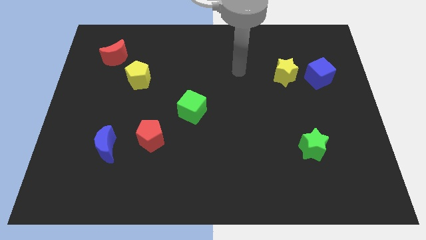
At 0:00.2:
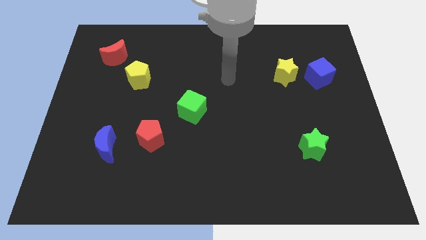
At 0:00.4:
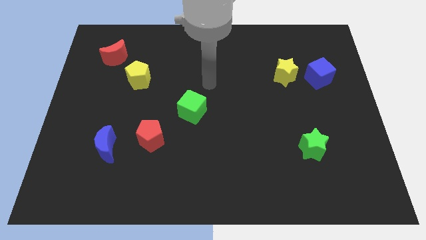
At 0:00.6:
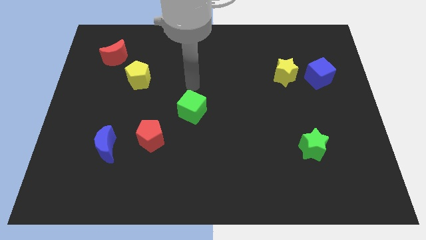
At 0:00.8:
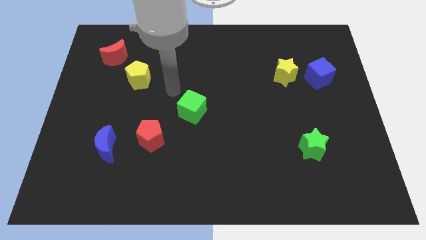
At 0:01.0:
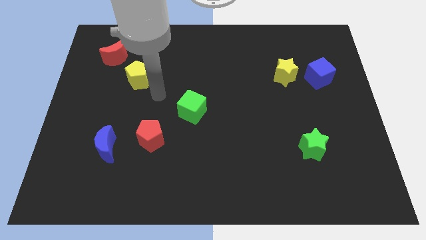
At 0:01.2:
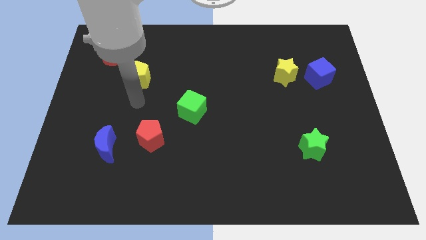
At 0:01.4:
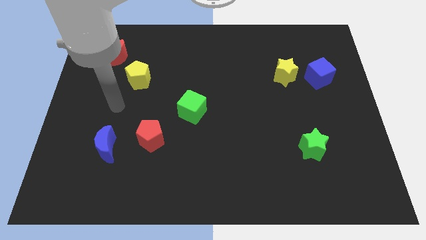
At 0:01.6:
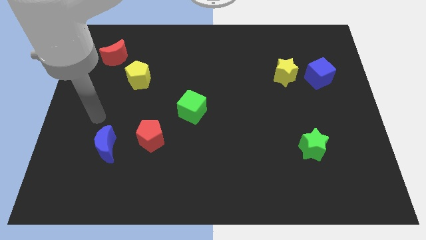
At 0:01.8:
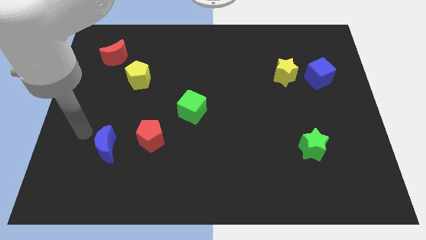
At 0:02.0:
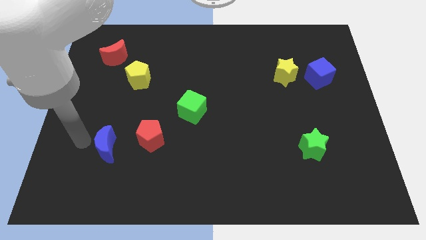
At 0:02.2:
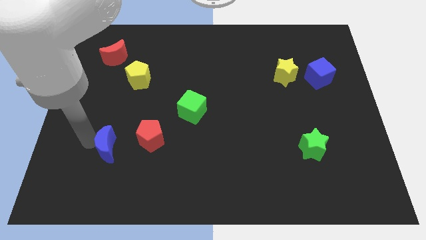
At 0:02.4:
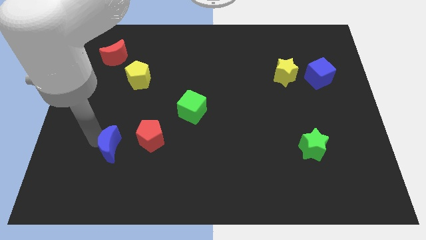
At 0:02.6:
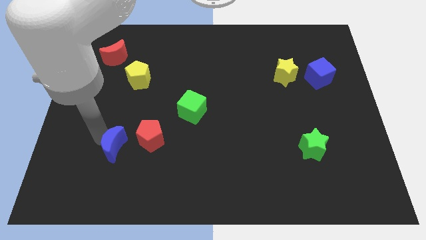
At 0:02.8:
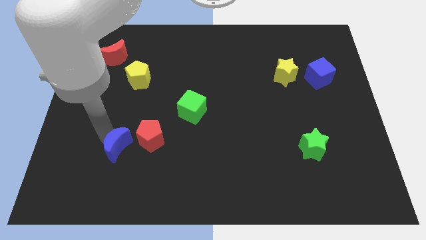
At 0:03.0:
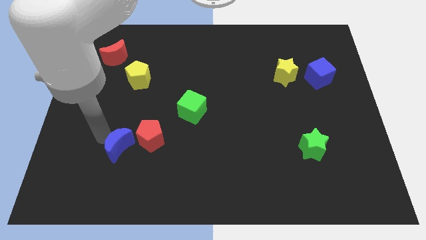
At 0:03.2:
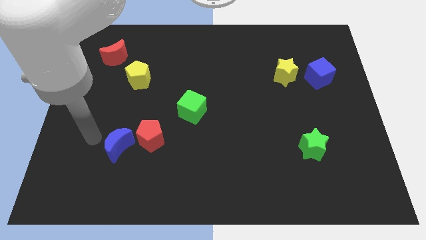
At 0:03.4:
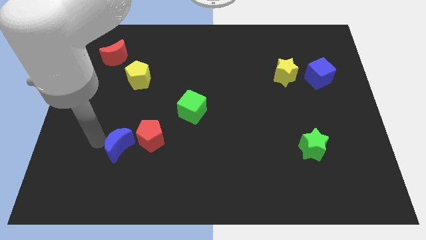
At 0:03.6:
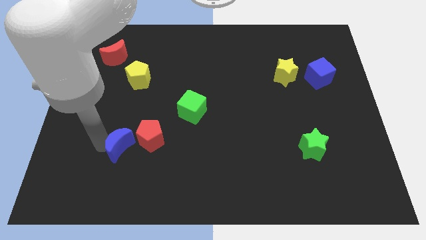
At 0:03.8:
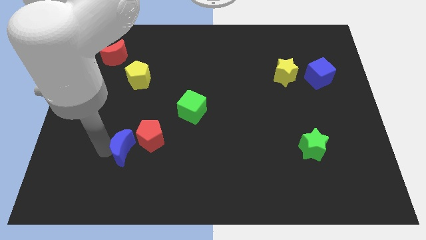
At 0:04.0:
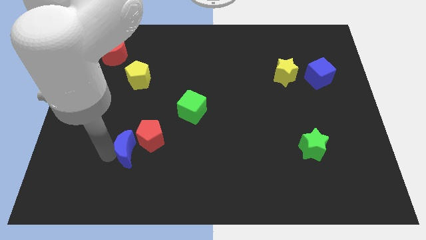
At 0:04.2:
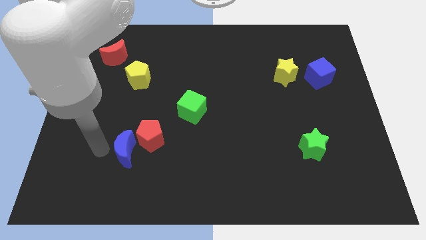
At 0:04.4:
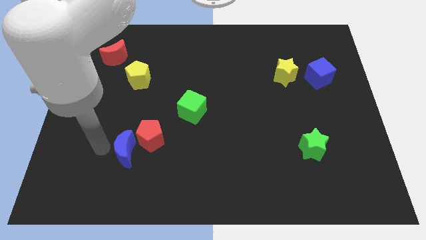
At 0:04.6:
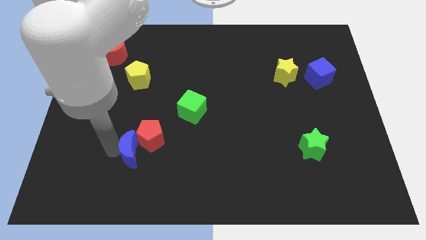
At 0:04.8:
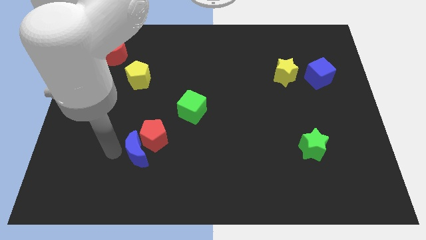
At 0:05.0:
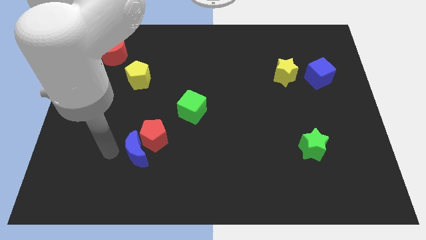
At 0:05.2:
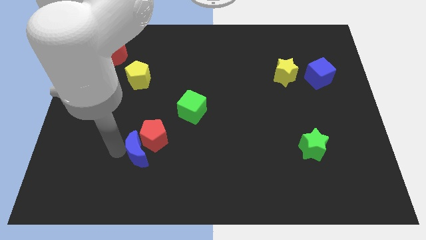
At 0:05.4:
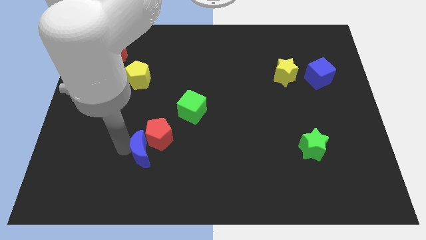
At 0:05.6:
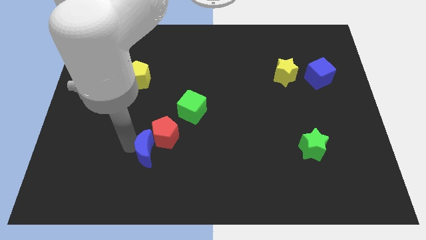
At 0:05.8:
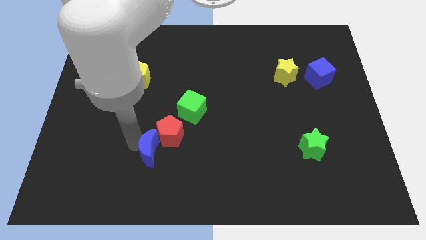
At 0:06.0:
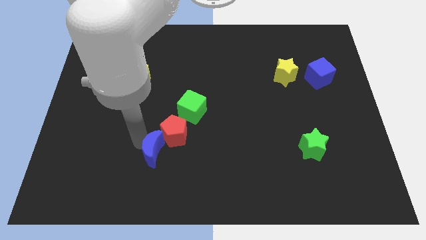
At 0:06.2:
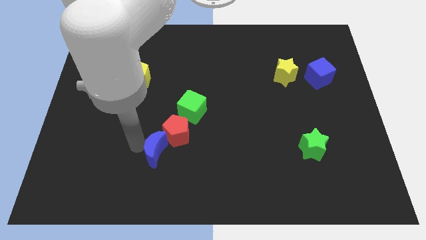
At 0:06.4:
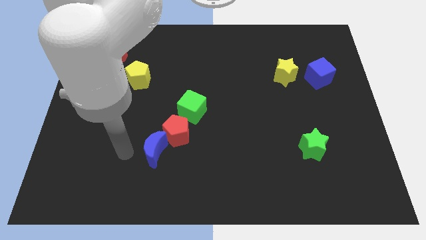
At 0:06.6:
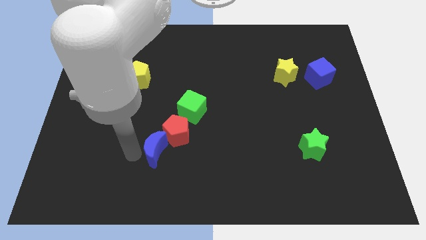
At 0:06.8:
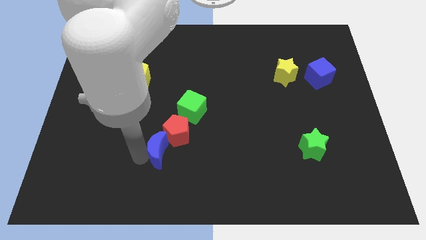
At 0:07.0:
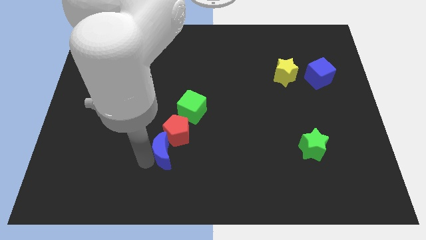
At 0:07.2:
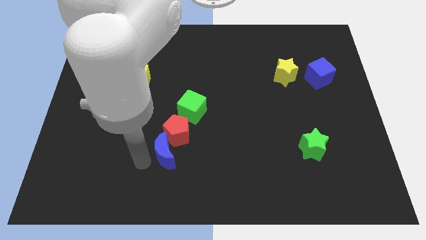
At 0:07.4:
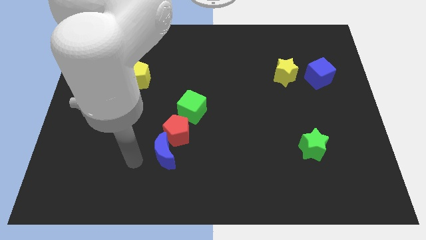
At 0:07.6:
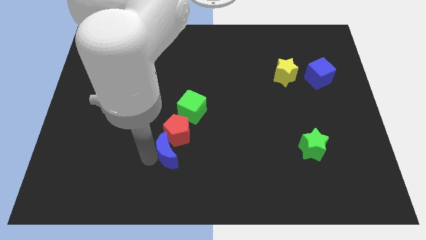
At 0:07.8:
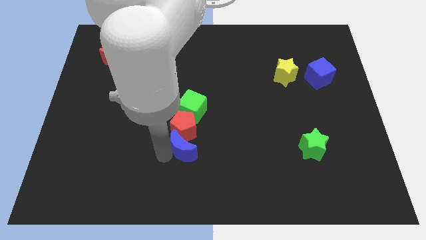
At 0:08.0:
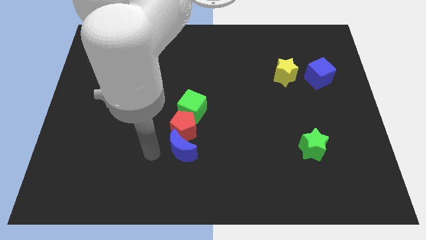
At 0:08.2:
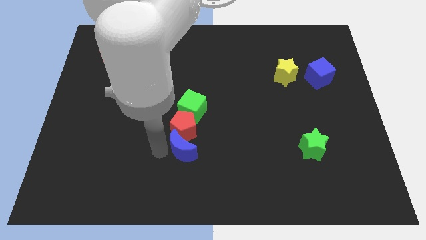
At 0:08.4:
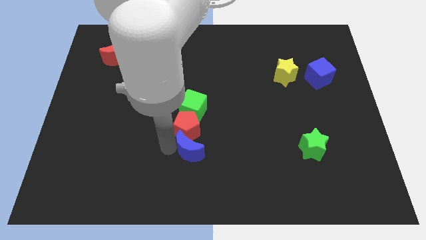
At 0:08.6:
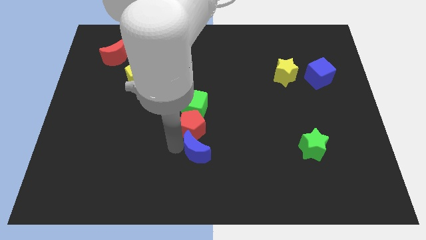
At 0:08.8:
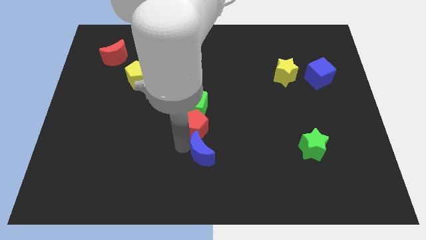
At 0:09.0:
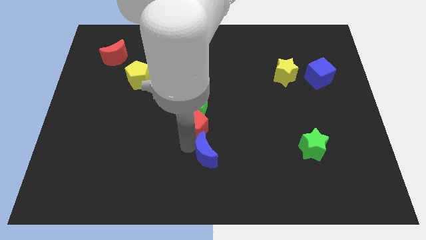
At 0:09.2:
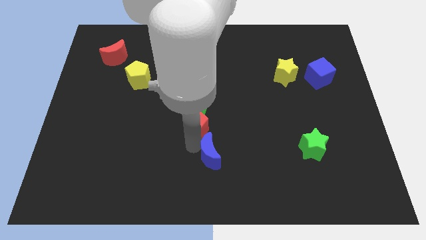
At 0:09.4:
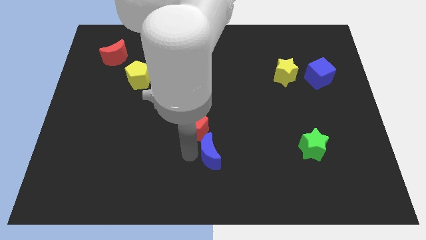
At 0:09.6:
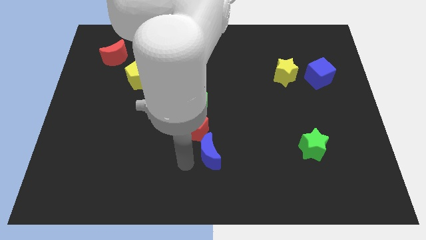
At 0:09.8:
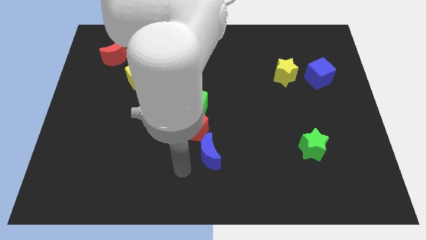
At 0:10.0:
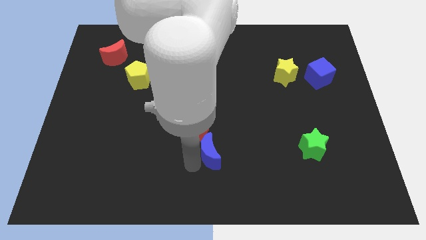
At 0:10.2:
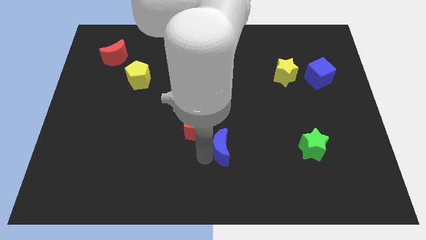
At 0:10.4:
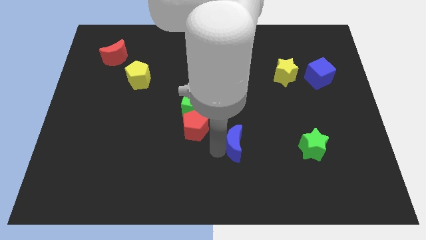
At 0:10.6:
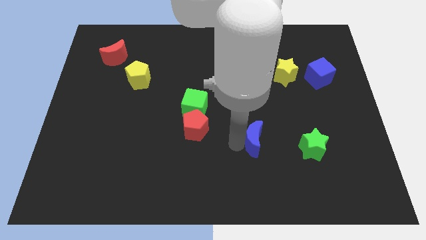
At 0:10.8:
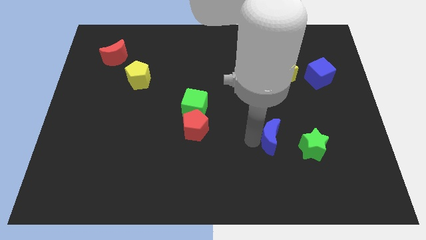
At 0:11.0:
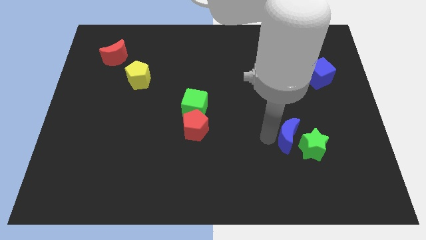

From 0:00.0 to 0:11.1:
push the blue moon next to the green star

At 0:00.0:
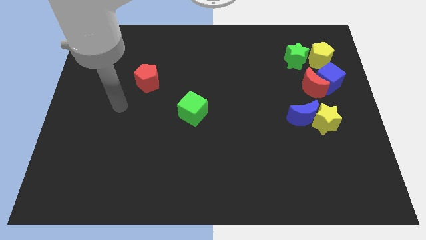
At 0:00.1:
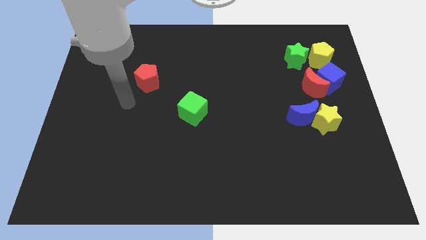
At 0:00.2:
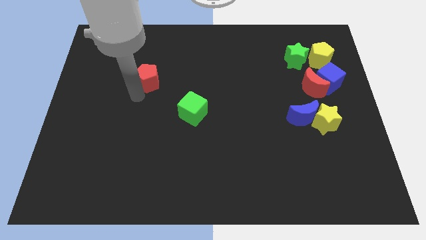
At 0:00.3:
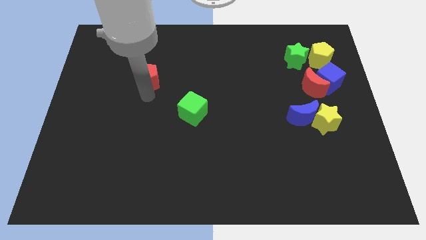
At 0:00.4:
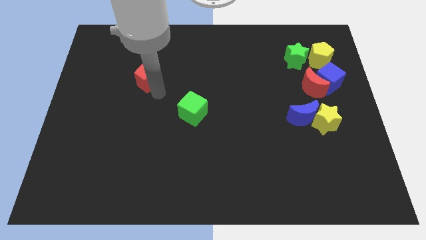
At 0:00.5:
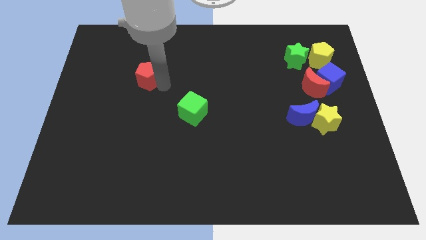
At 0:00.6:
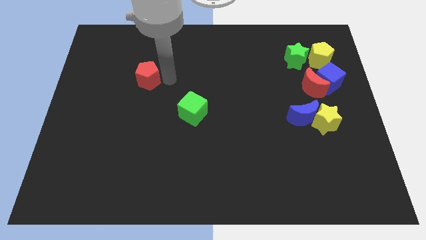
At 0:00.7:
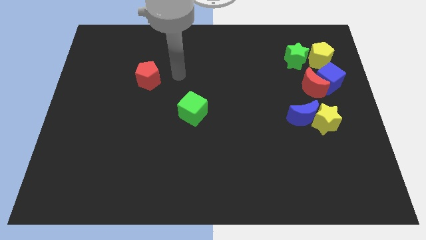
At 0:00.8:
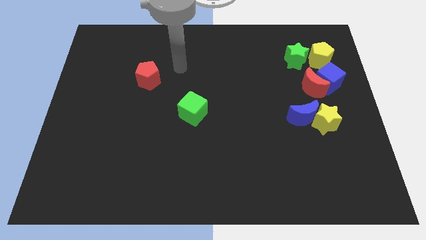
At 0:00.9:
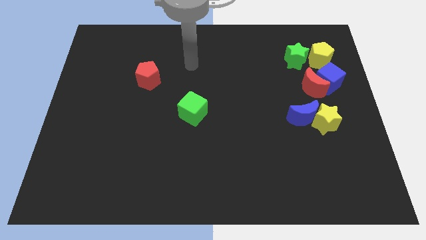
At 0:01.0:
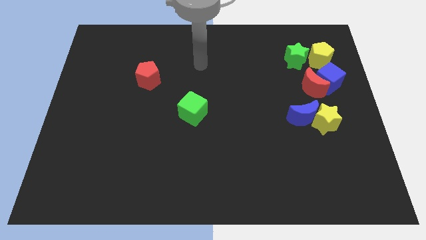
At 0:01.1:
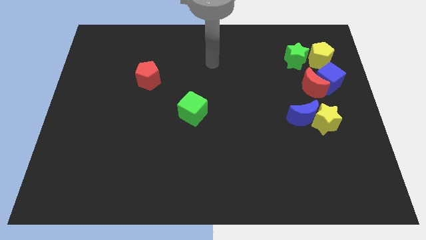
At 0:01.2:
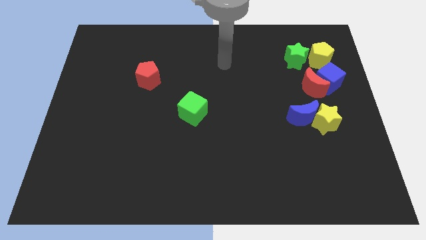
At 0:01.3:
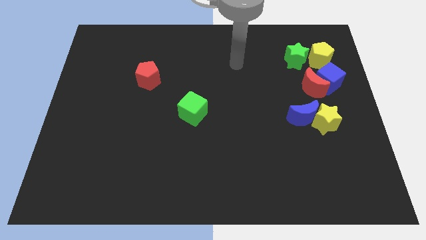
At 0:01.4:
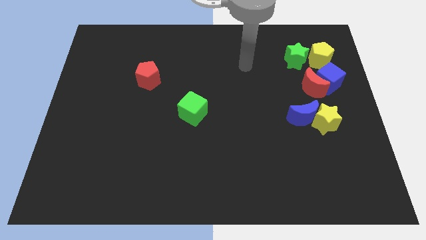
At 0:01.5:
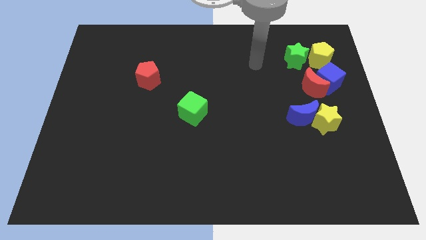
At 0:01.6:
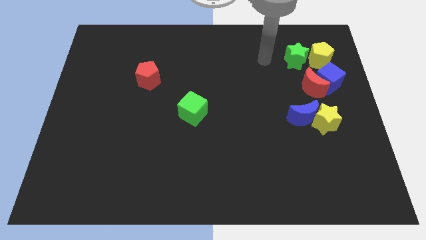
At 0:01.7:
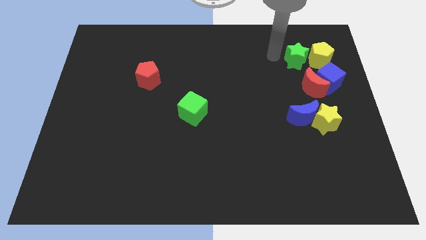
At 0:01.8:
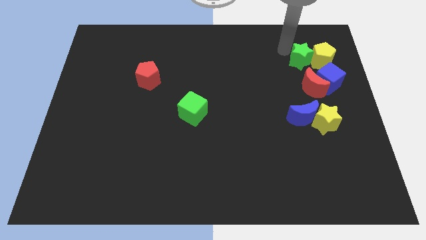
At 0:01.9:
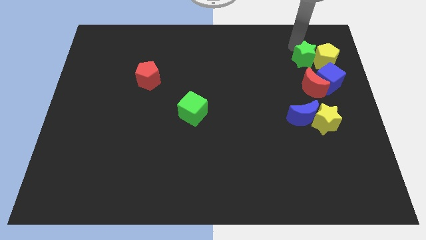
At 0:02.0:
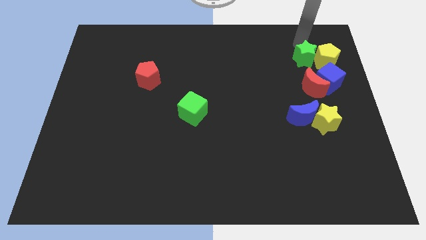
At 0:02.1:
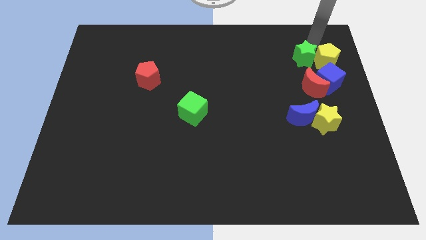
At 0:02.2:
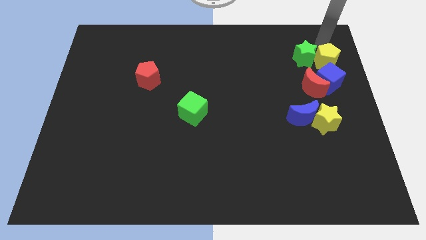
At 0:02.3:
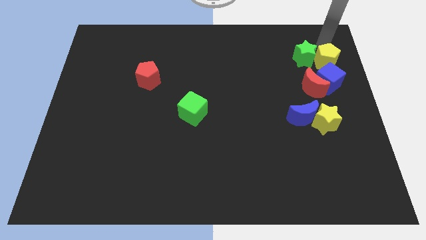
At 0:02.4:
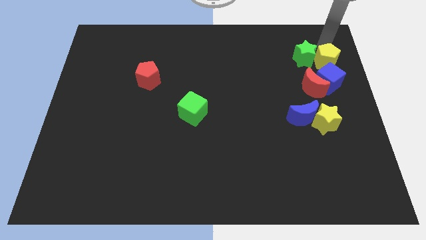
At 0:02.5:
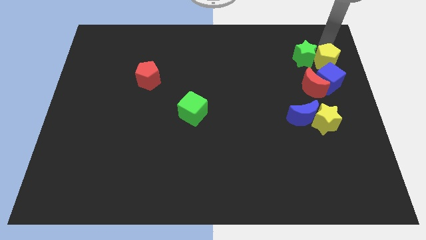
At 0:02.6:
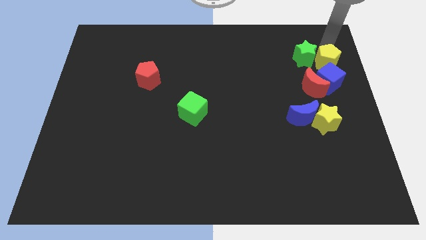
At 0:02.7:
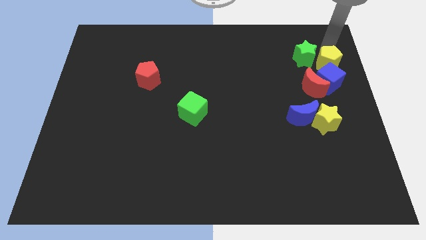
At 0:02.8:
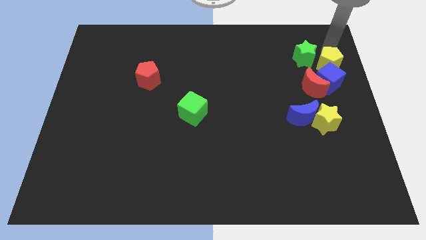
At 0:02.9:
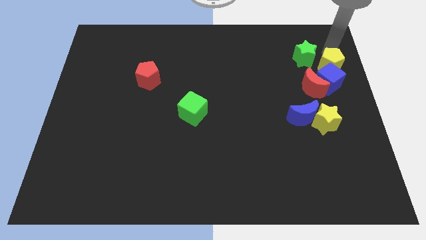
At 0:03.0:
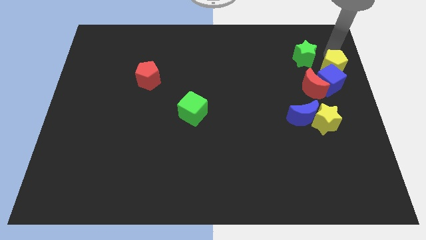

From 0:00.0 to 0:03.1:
push the yellow pentagon towards the blue cube
